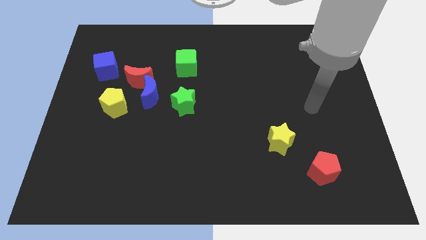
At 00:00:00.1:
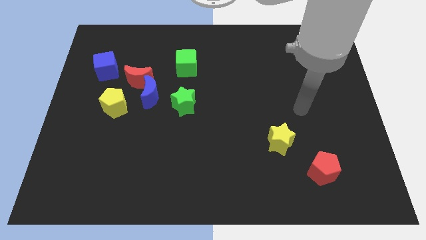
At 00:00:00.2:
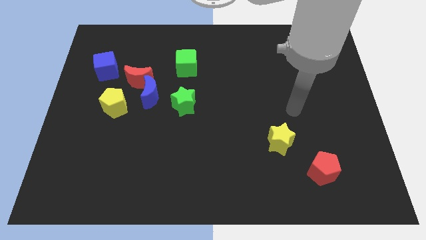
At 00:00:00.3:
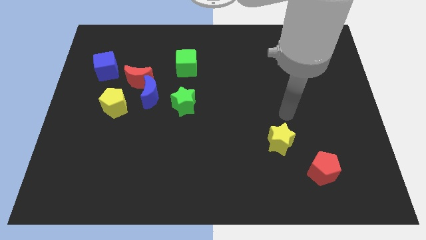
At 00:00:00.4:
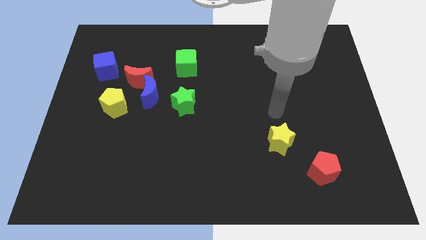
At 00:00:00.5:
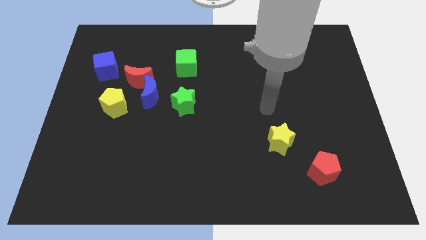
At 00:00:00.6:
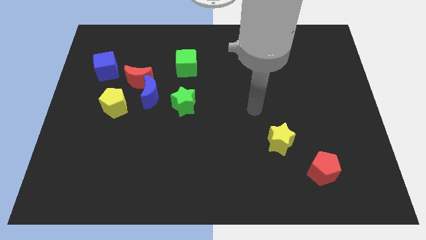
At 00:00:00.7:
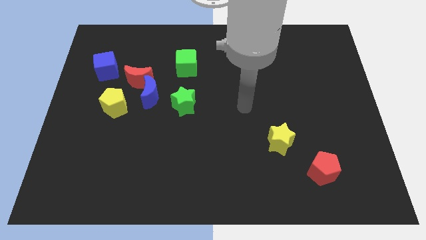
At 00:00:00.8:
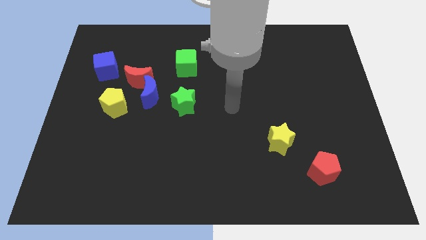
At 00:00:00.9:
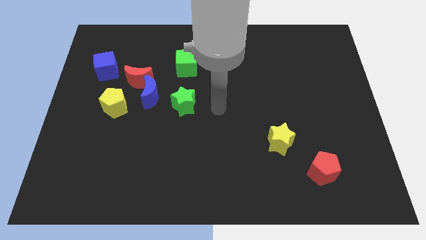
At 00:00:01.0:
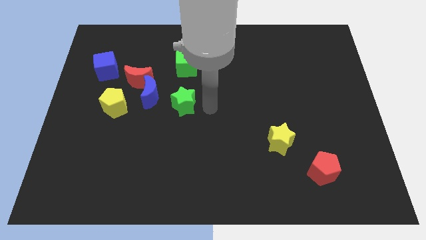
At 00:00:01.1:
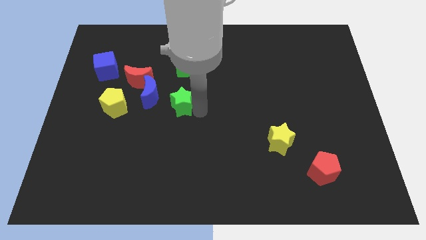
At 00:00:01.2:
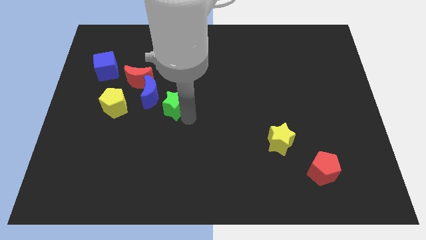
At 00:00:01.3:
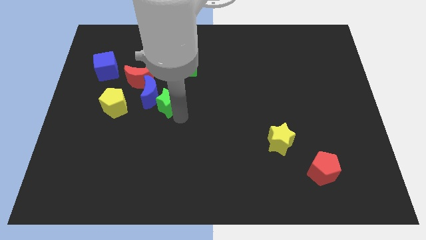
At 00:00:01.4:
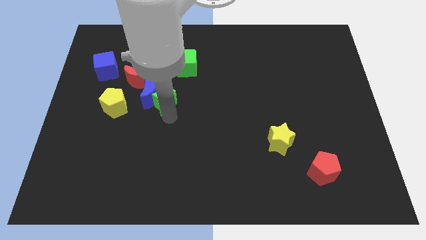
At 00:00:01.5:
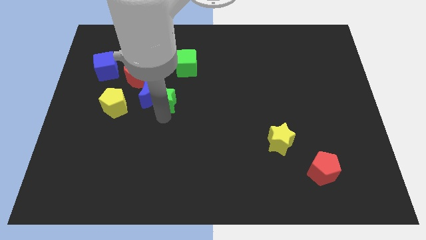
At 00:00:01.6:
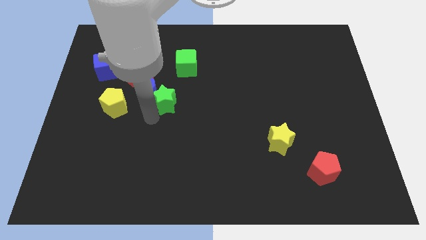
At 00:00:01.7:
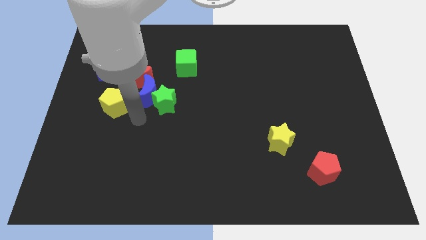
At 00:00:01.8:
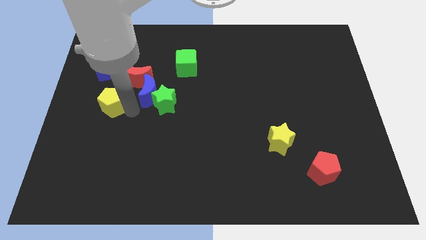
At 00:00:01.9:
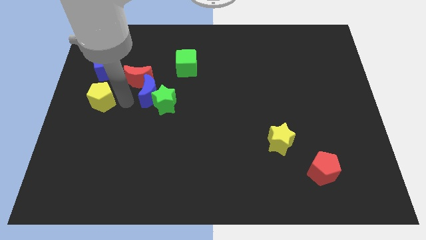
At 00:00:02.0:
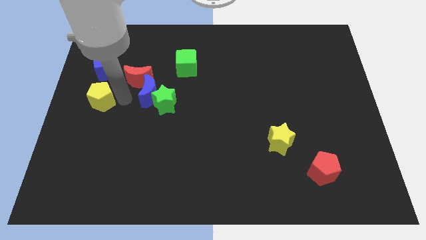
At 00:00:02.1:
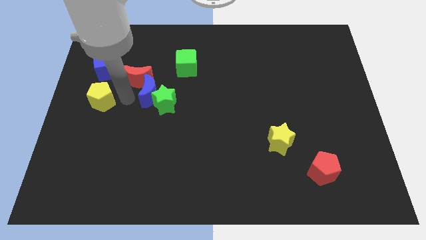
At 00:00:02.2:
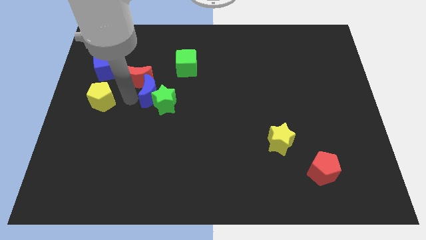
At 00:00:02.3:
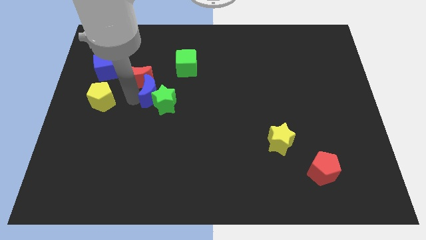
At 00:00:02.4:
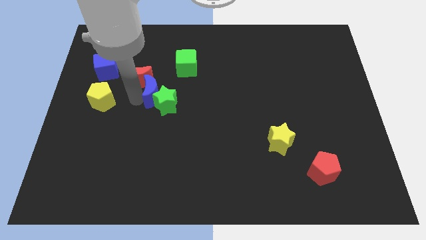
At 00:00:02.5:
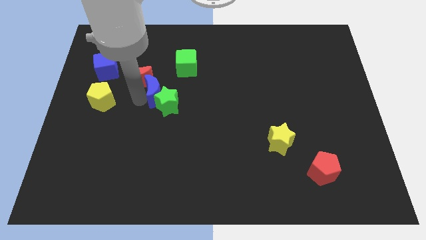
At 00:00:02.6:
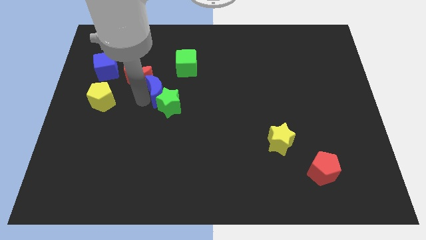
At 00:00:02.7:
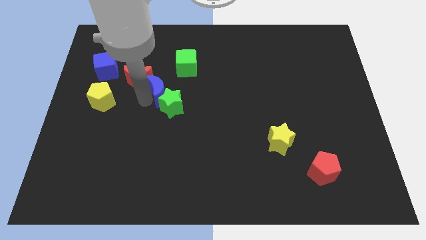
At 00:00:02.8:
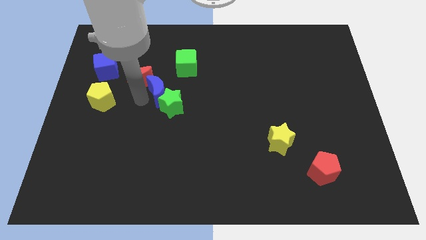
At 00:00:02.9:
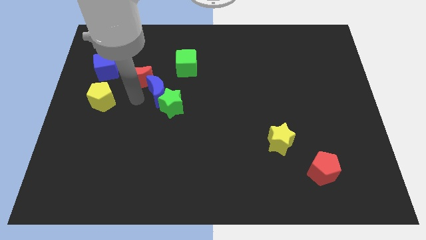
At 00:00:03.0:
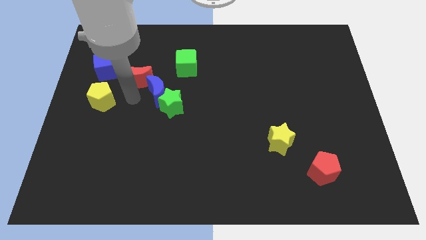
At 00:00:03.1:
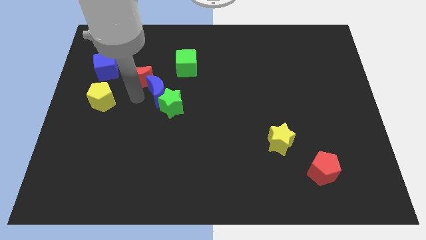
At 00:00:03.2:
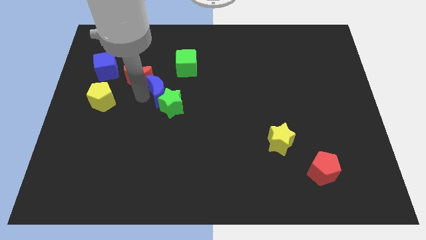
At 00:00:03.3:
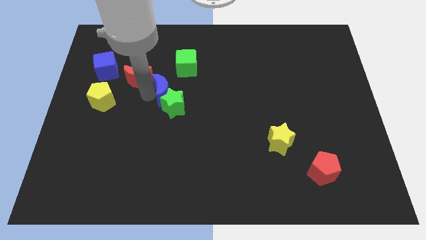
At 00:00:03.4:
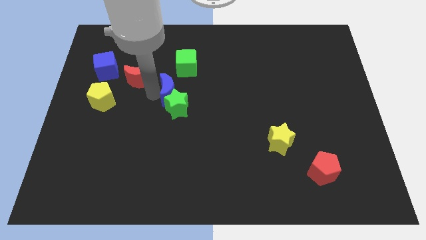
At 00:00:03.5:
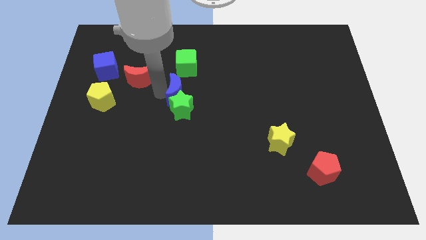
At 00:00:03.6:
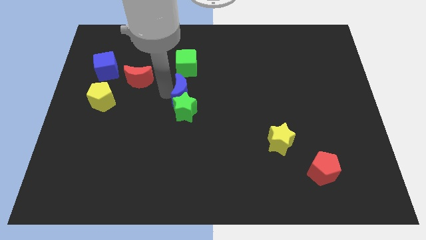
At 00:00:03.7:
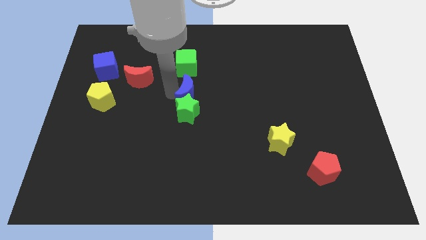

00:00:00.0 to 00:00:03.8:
pull the blue moon apart from the red moon, green star, and yellow pentagon

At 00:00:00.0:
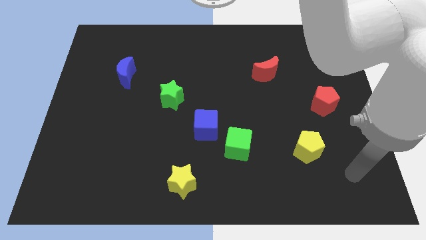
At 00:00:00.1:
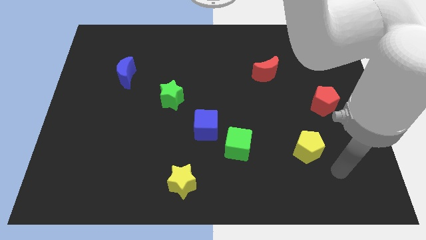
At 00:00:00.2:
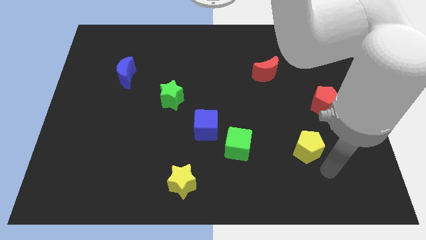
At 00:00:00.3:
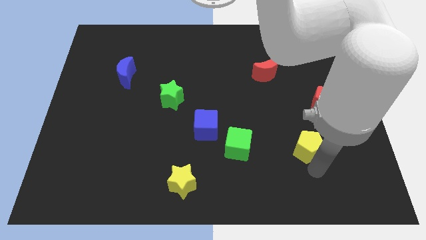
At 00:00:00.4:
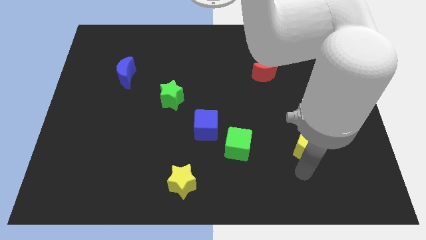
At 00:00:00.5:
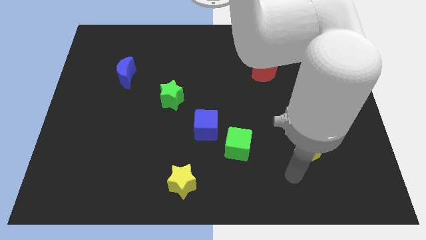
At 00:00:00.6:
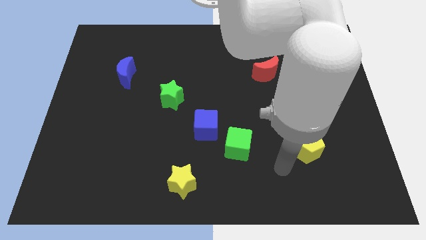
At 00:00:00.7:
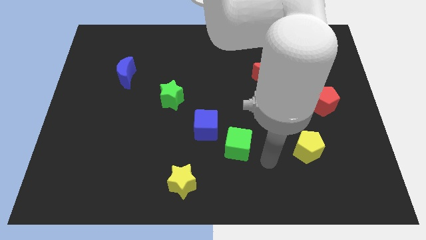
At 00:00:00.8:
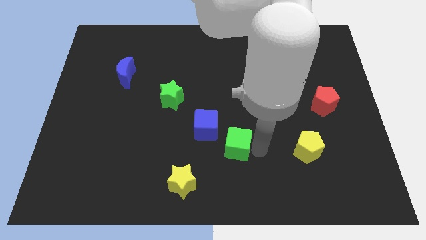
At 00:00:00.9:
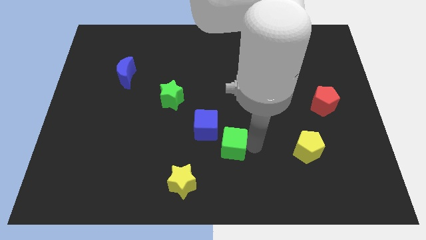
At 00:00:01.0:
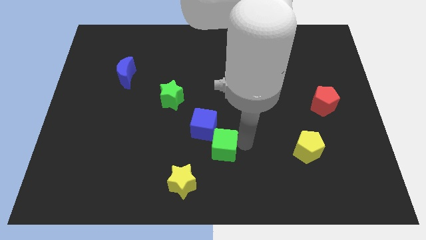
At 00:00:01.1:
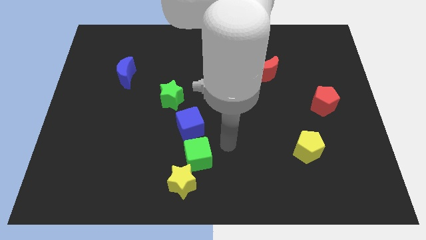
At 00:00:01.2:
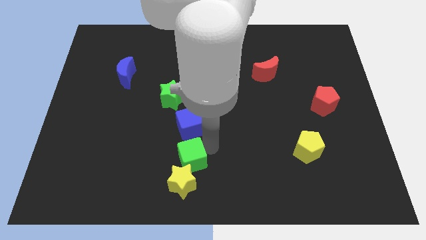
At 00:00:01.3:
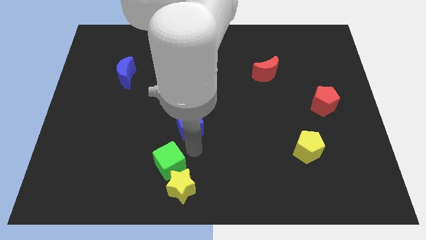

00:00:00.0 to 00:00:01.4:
move the blue cube away from the green cube

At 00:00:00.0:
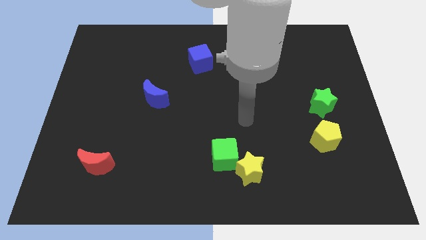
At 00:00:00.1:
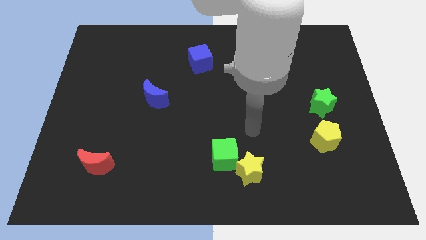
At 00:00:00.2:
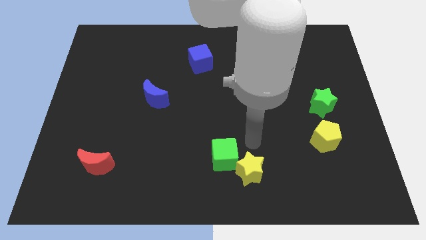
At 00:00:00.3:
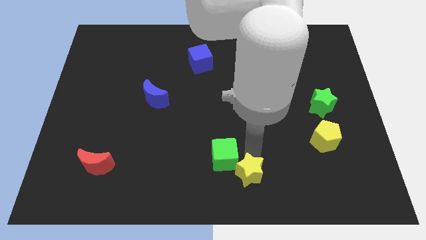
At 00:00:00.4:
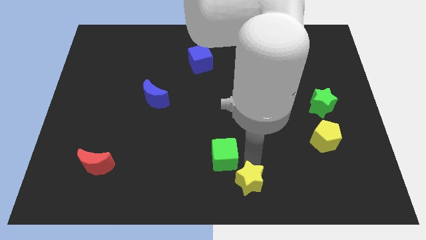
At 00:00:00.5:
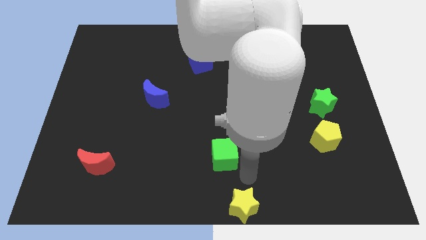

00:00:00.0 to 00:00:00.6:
move the green cube away from the yellow star

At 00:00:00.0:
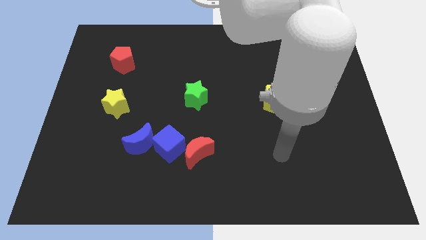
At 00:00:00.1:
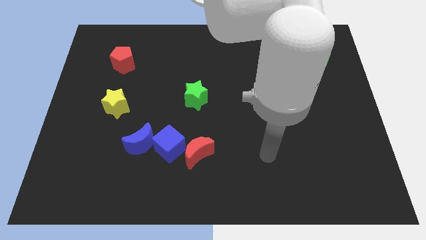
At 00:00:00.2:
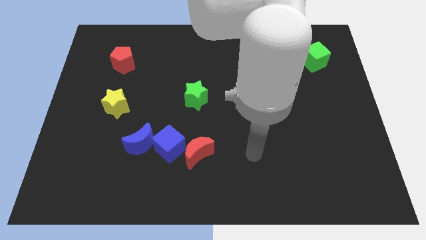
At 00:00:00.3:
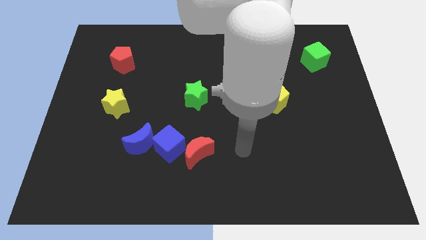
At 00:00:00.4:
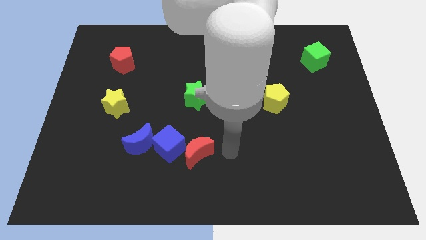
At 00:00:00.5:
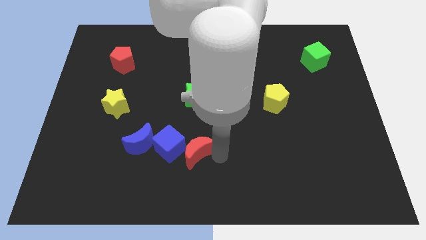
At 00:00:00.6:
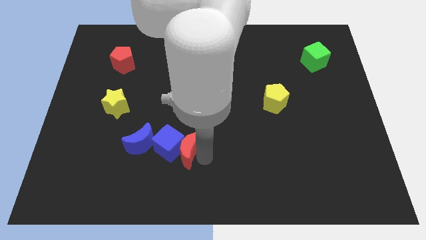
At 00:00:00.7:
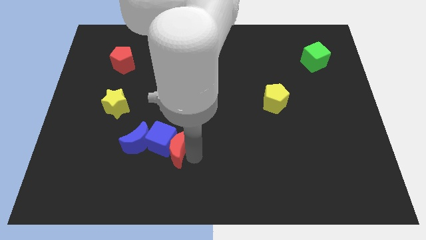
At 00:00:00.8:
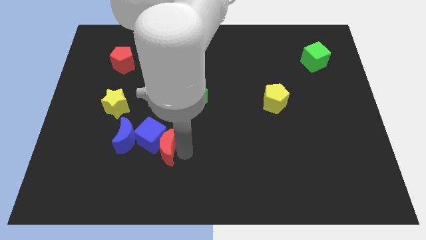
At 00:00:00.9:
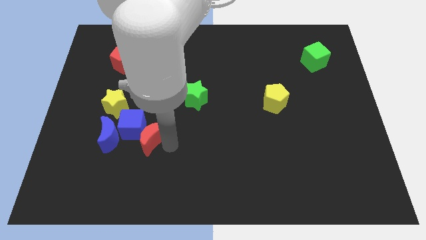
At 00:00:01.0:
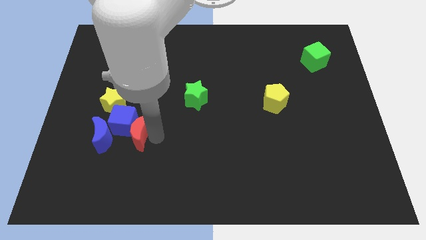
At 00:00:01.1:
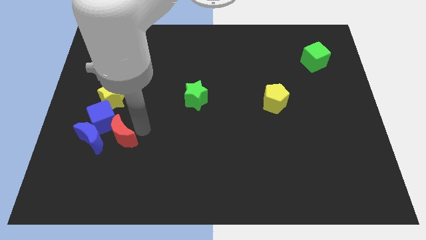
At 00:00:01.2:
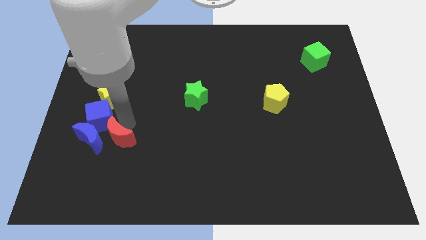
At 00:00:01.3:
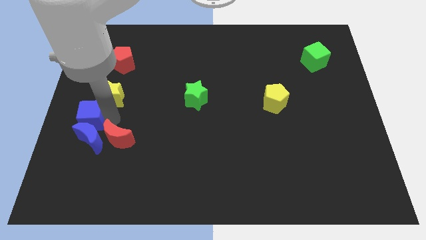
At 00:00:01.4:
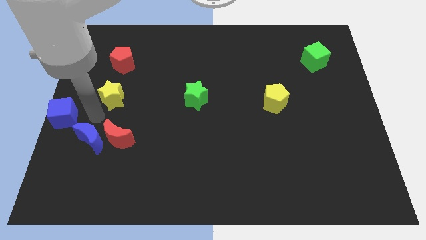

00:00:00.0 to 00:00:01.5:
separate the blue moon from the blue cube

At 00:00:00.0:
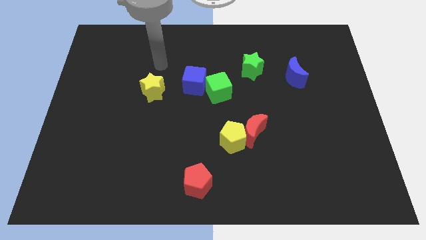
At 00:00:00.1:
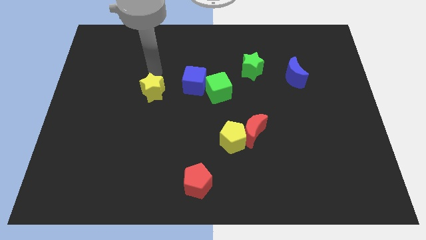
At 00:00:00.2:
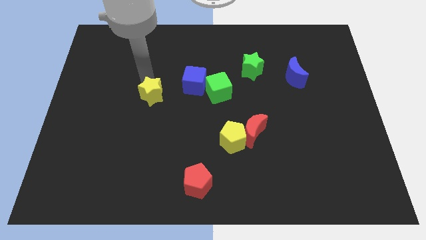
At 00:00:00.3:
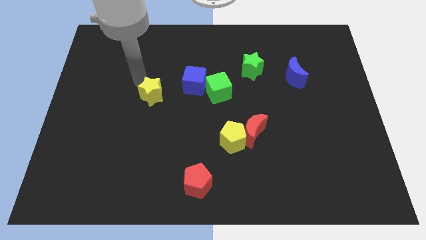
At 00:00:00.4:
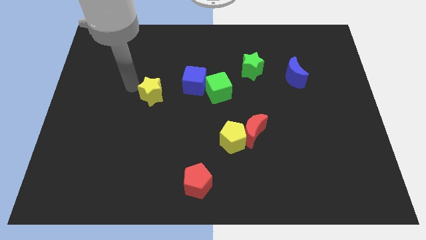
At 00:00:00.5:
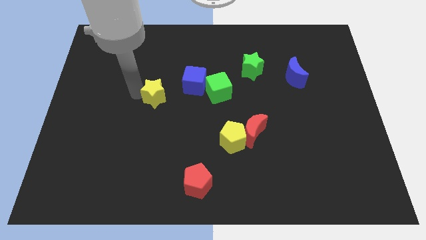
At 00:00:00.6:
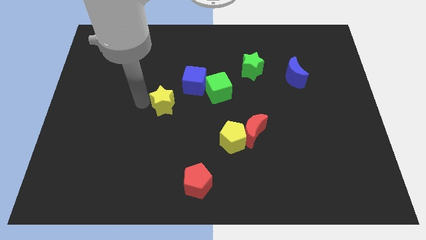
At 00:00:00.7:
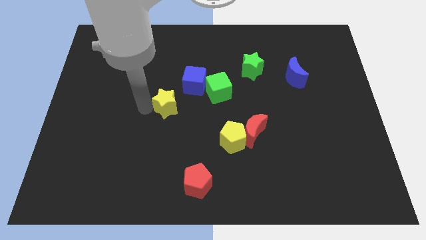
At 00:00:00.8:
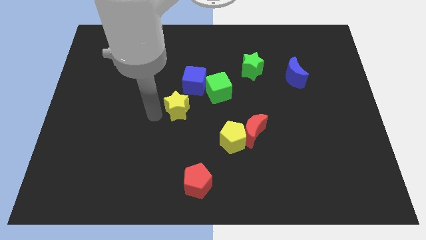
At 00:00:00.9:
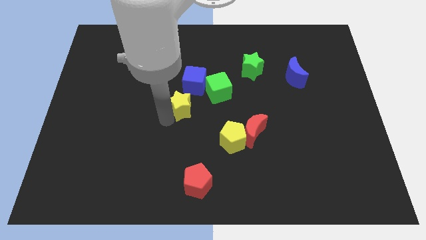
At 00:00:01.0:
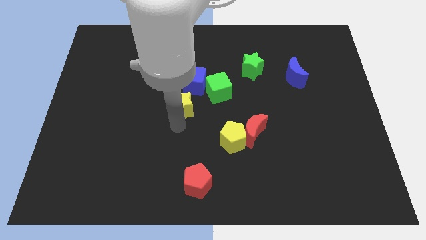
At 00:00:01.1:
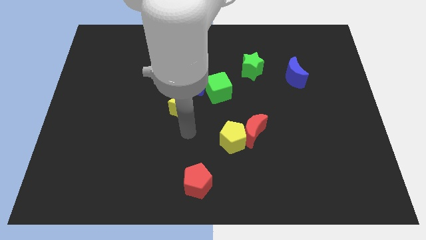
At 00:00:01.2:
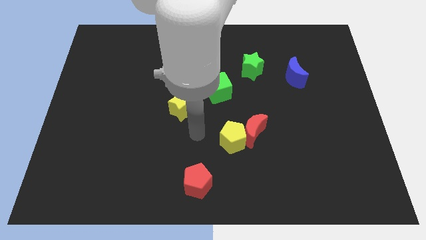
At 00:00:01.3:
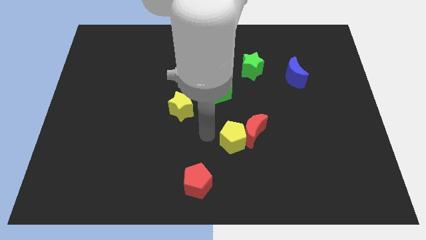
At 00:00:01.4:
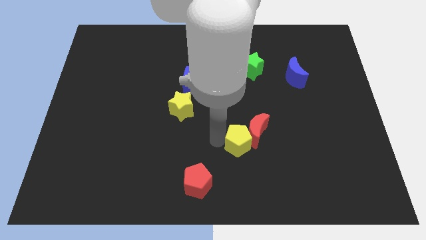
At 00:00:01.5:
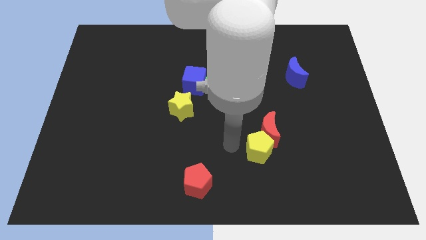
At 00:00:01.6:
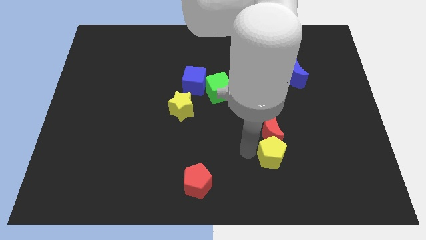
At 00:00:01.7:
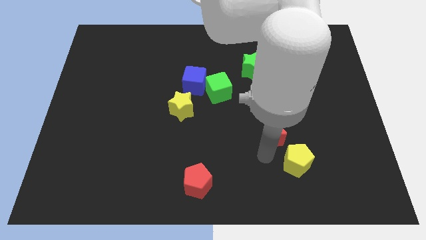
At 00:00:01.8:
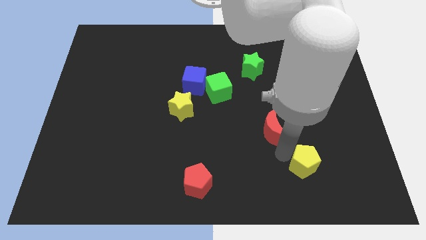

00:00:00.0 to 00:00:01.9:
separate the red moon from the yellow pentagon
